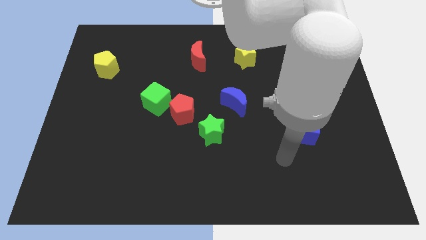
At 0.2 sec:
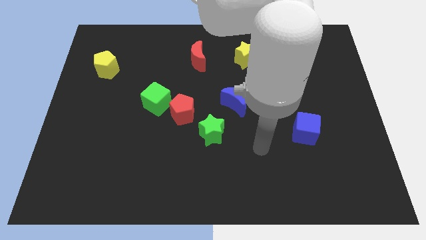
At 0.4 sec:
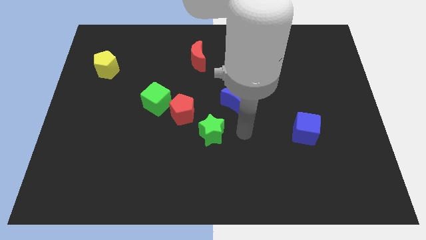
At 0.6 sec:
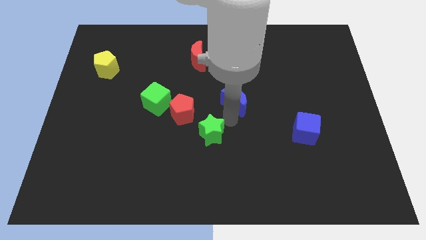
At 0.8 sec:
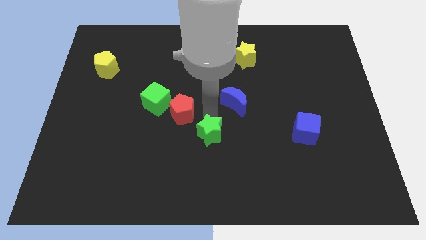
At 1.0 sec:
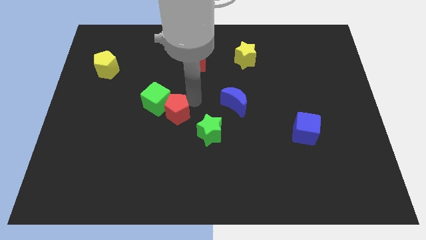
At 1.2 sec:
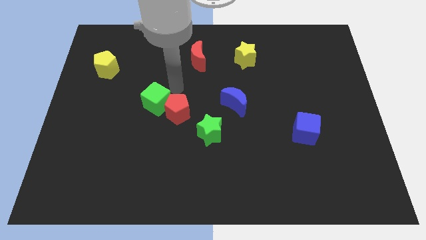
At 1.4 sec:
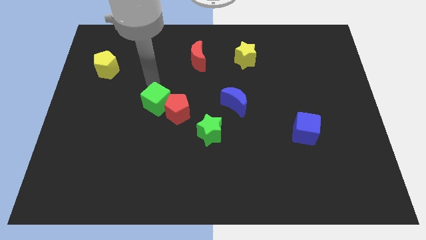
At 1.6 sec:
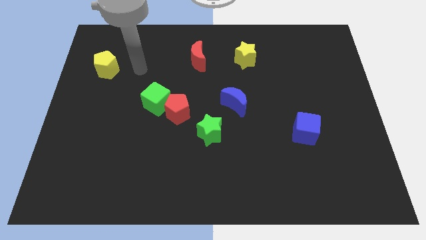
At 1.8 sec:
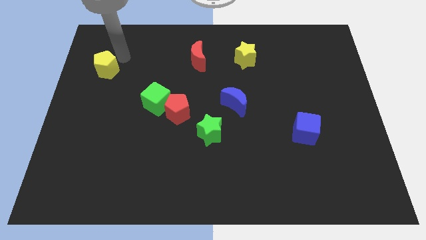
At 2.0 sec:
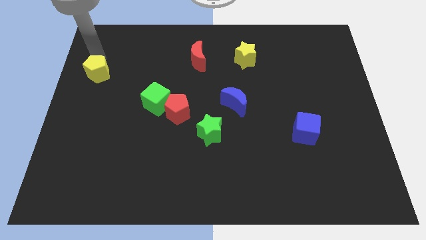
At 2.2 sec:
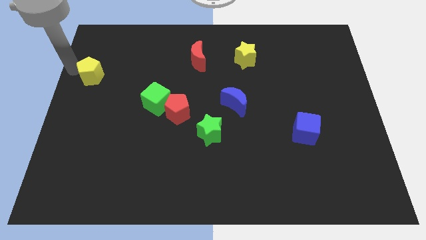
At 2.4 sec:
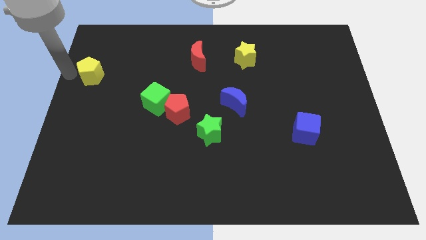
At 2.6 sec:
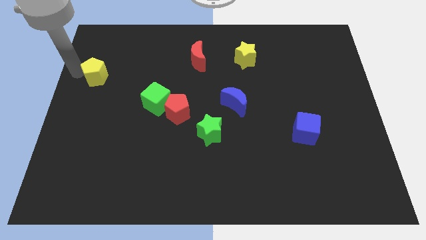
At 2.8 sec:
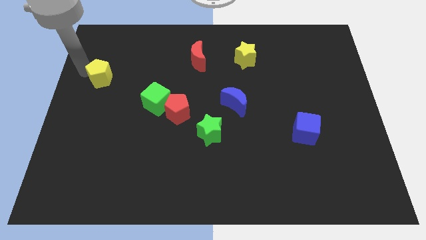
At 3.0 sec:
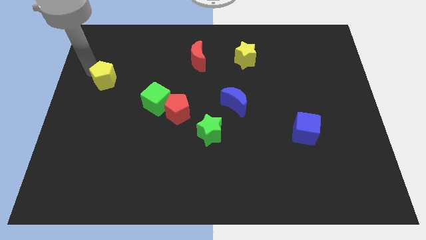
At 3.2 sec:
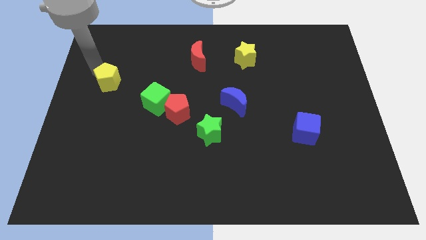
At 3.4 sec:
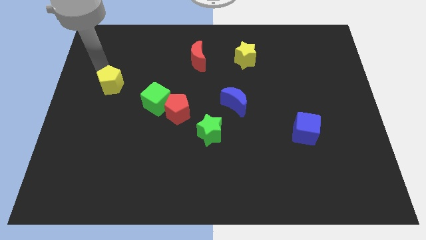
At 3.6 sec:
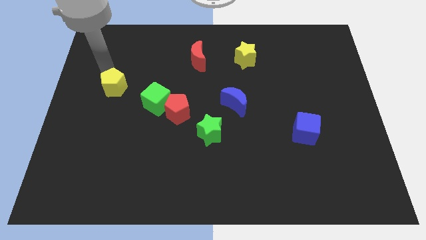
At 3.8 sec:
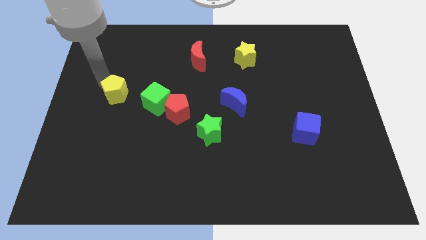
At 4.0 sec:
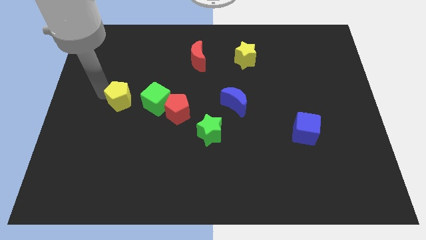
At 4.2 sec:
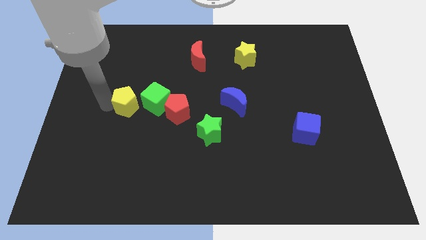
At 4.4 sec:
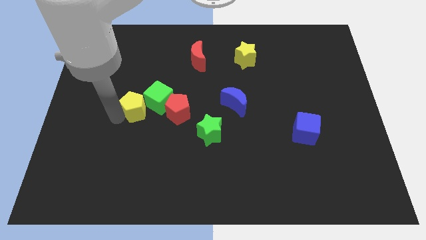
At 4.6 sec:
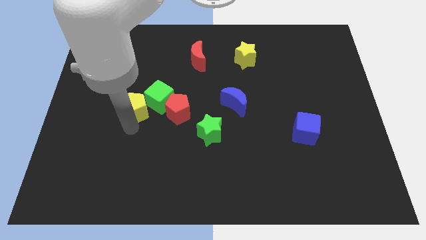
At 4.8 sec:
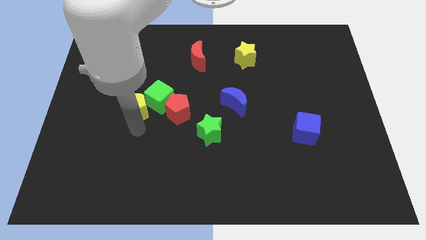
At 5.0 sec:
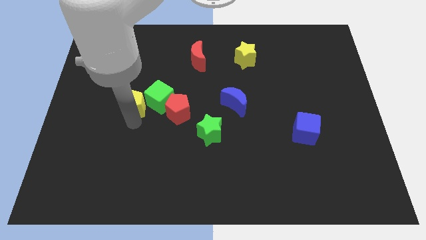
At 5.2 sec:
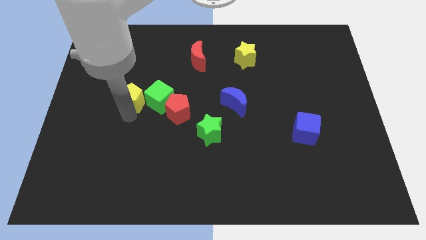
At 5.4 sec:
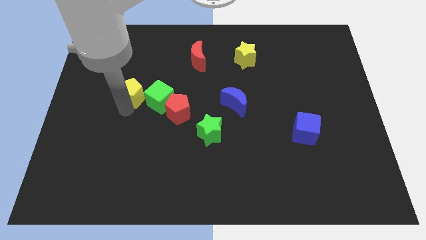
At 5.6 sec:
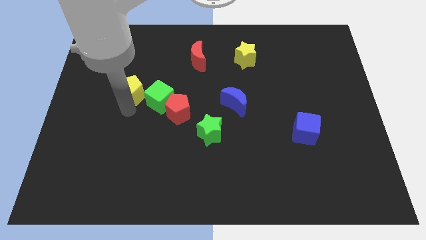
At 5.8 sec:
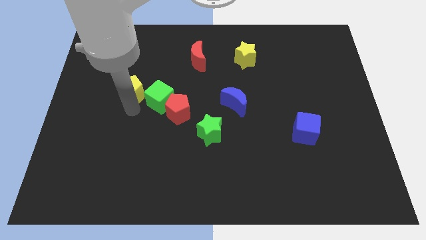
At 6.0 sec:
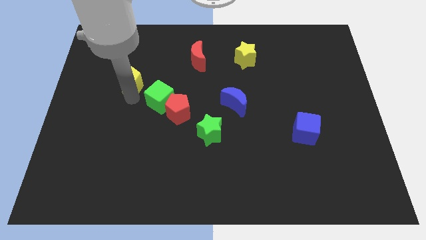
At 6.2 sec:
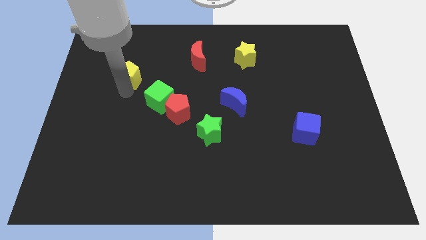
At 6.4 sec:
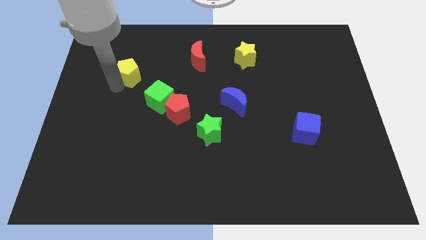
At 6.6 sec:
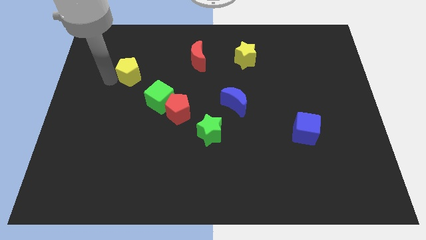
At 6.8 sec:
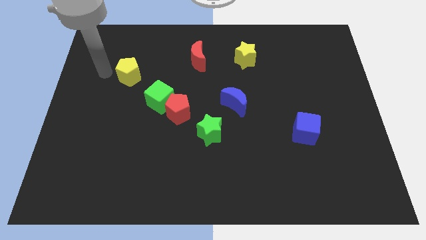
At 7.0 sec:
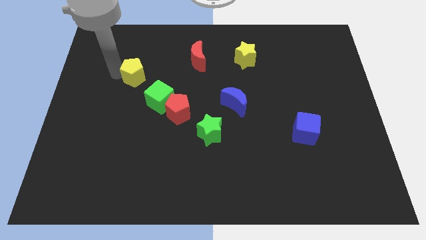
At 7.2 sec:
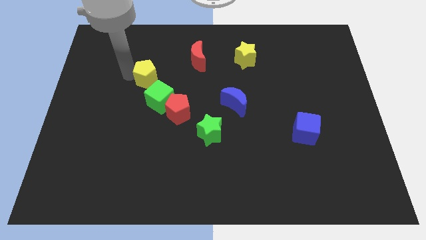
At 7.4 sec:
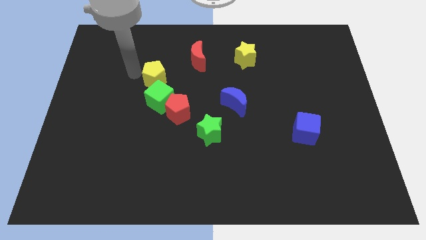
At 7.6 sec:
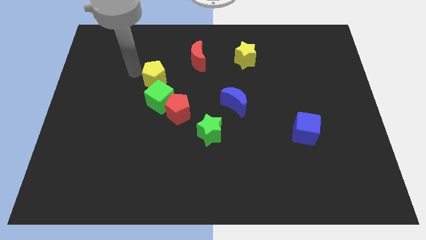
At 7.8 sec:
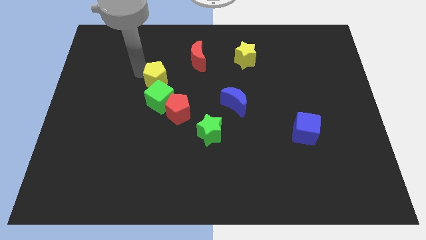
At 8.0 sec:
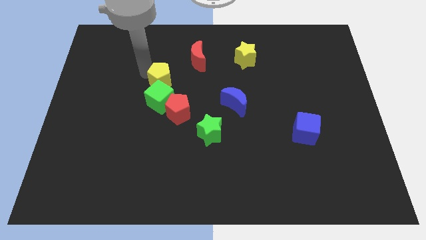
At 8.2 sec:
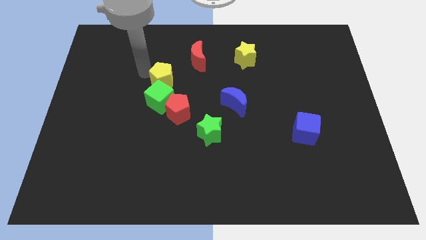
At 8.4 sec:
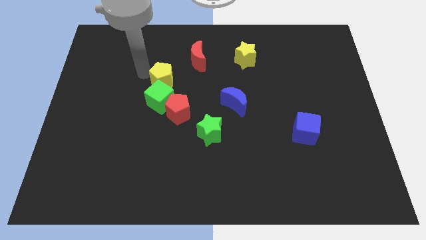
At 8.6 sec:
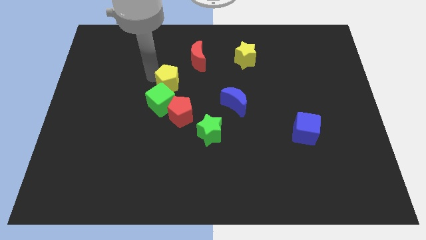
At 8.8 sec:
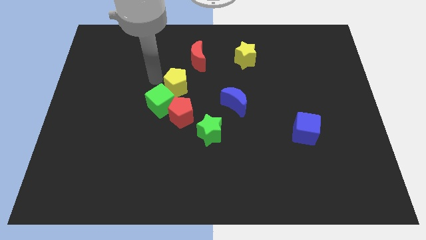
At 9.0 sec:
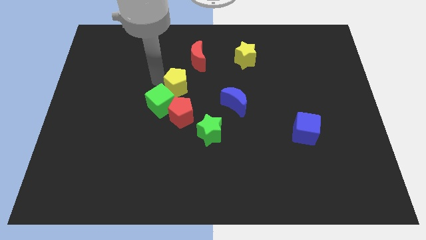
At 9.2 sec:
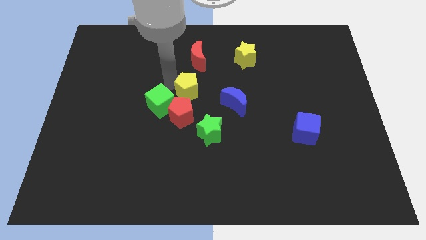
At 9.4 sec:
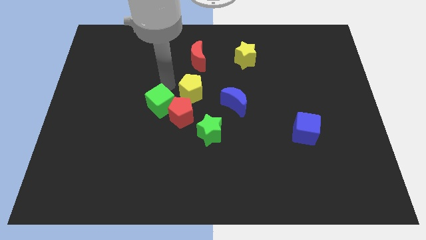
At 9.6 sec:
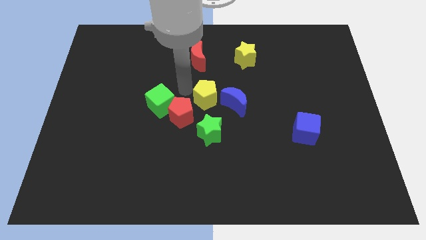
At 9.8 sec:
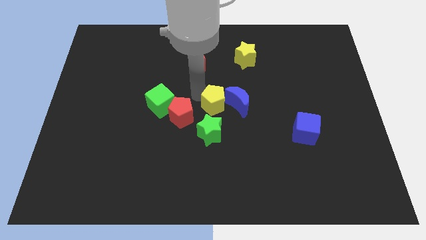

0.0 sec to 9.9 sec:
push the yellow pentagon to the blue moon

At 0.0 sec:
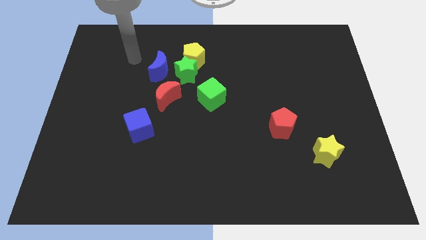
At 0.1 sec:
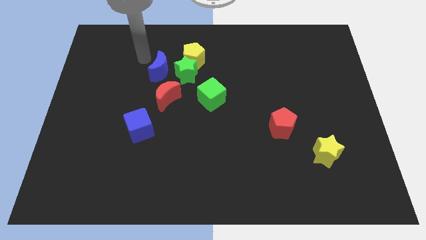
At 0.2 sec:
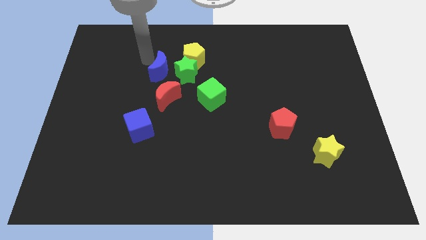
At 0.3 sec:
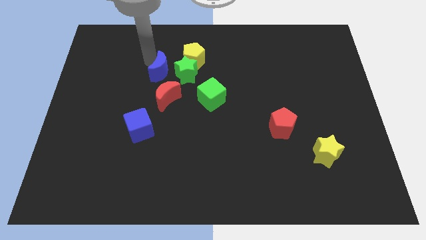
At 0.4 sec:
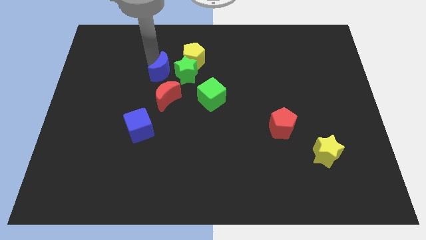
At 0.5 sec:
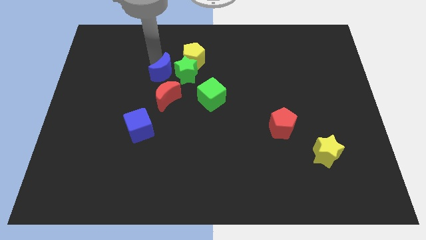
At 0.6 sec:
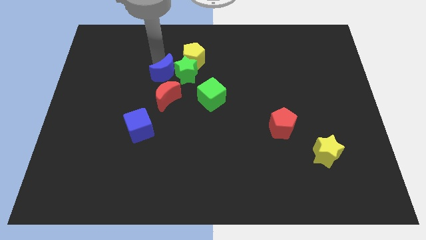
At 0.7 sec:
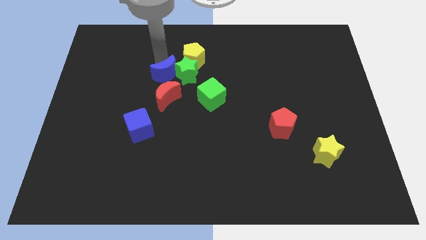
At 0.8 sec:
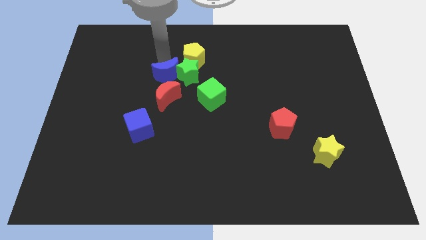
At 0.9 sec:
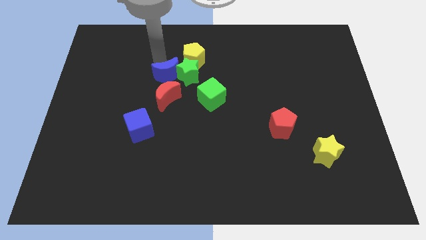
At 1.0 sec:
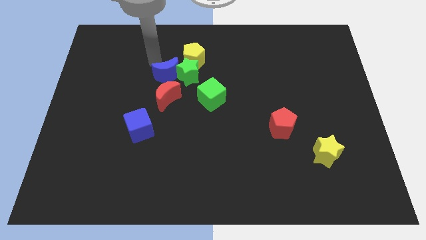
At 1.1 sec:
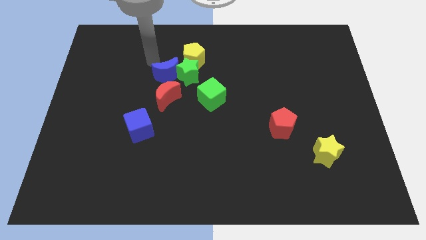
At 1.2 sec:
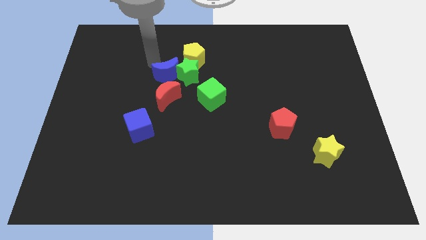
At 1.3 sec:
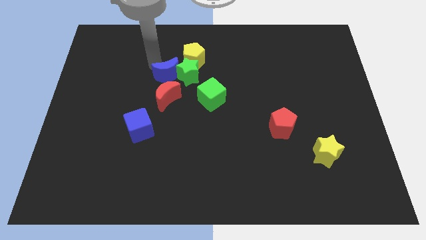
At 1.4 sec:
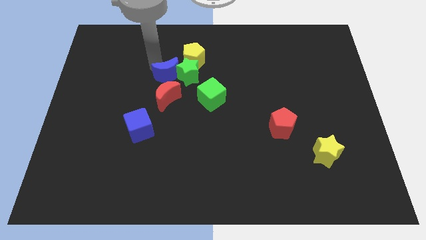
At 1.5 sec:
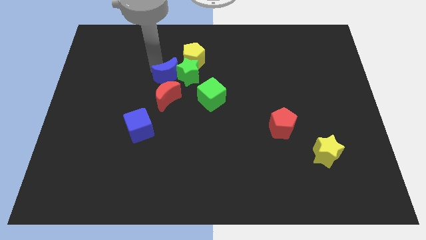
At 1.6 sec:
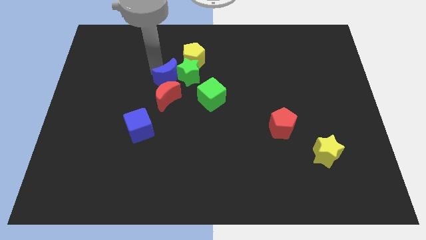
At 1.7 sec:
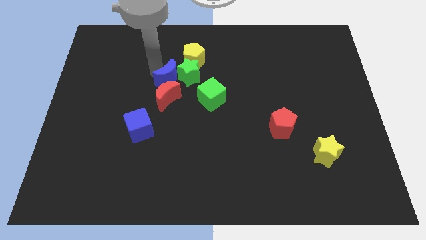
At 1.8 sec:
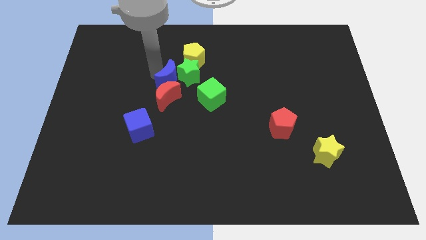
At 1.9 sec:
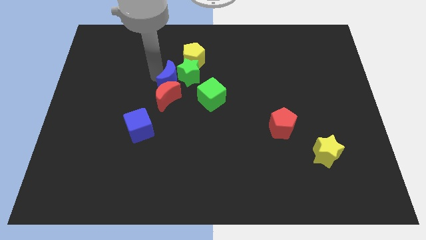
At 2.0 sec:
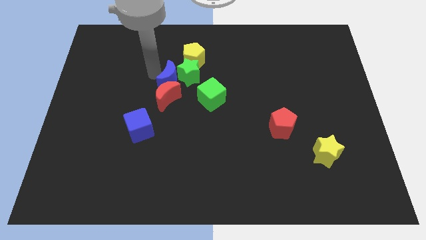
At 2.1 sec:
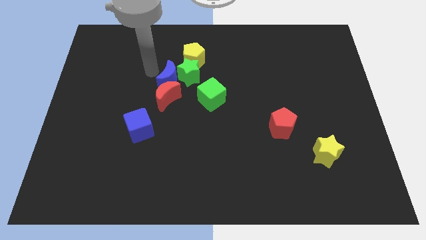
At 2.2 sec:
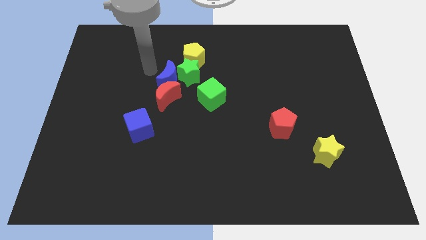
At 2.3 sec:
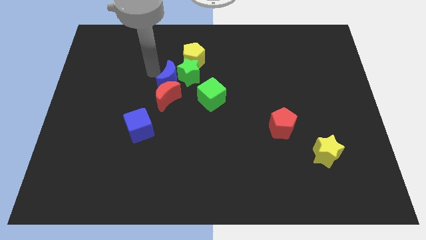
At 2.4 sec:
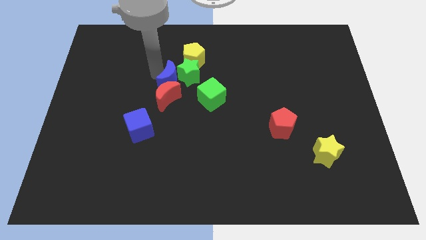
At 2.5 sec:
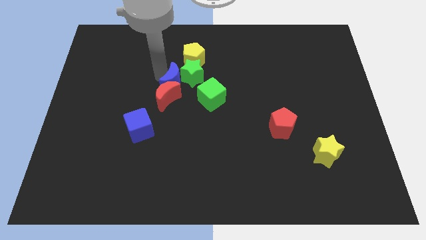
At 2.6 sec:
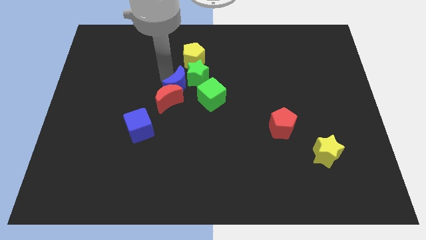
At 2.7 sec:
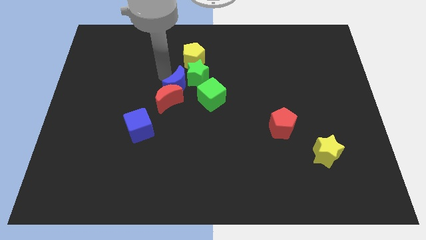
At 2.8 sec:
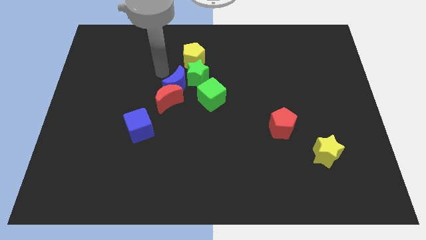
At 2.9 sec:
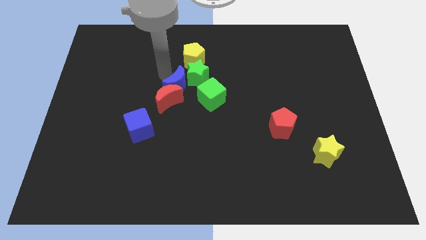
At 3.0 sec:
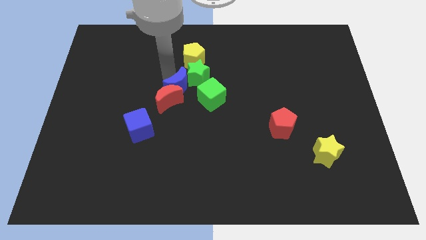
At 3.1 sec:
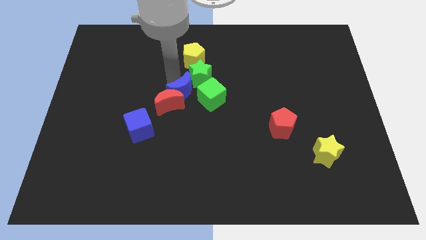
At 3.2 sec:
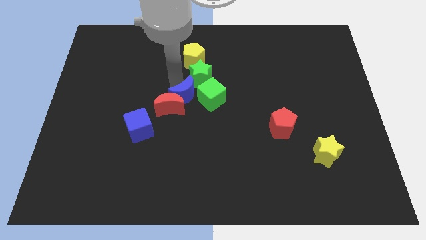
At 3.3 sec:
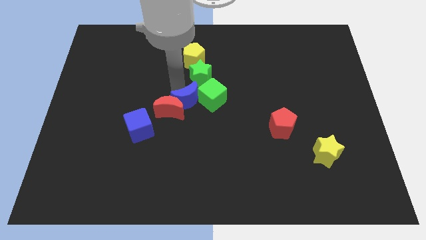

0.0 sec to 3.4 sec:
slide the blue moon towards the green cube
